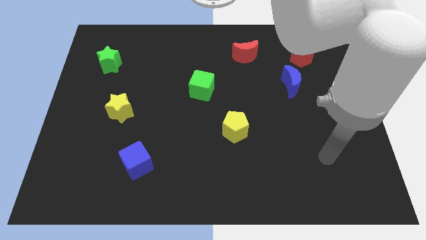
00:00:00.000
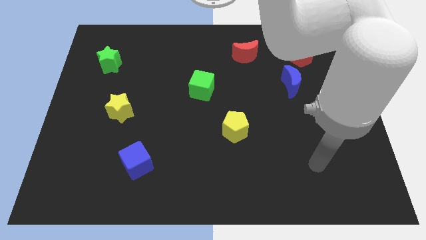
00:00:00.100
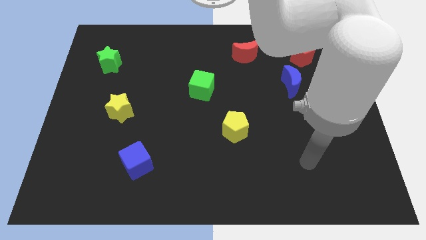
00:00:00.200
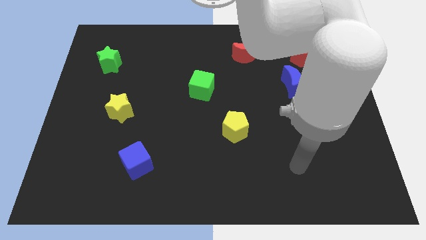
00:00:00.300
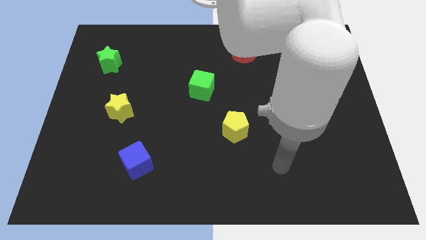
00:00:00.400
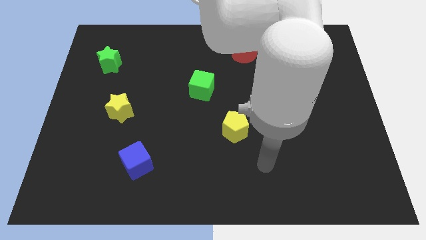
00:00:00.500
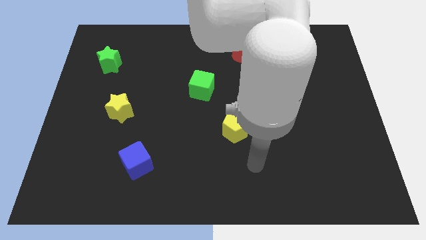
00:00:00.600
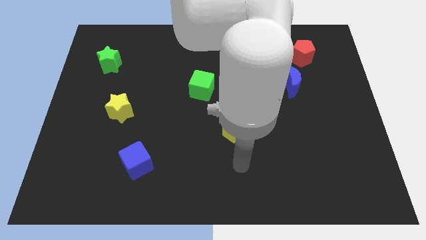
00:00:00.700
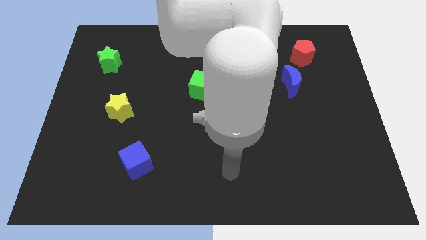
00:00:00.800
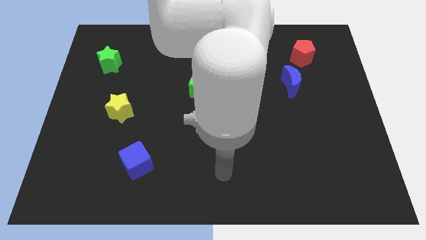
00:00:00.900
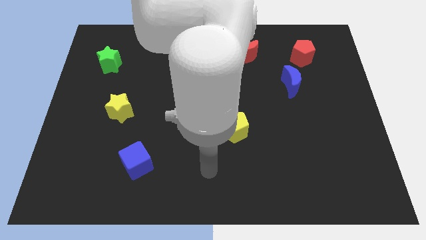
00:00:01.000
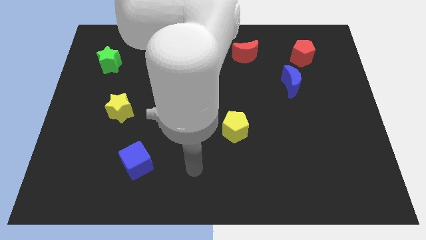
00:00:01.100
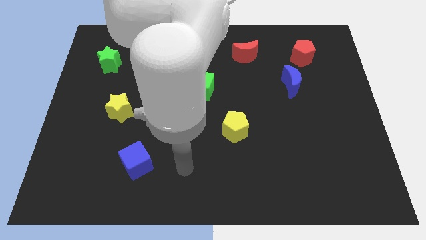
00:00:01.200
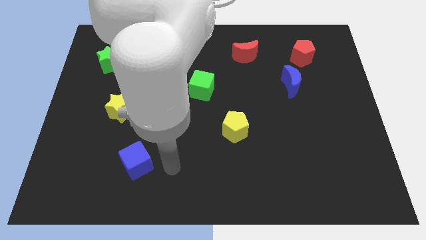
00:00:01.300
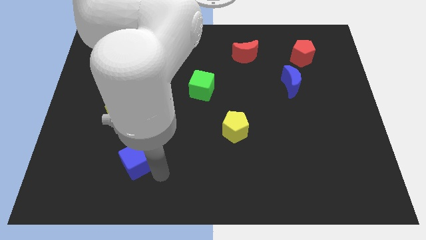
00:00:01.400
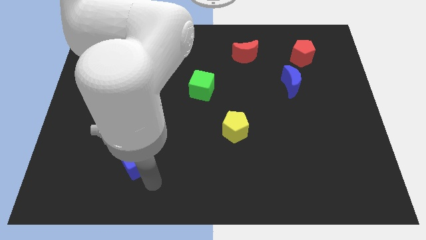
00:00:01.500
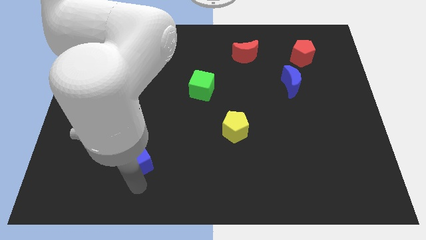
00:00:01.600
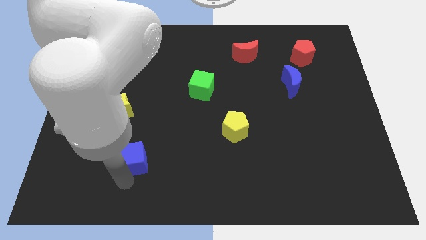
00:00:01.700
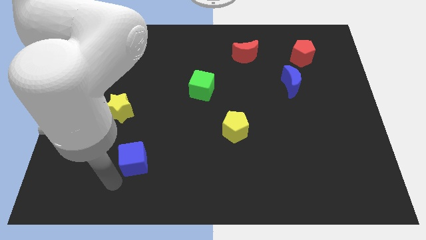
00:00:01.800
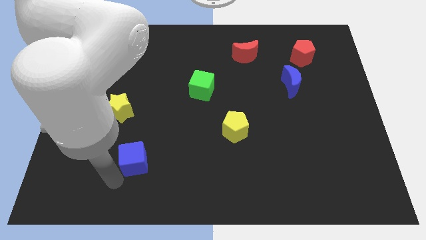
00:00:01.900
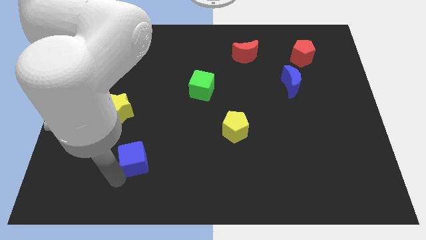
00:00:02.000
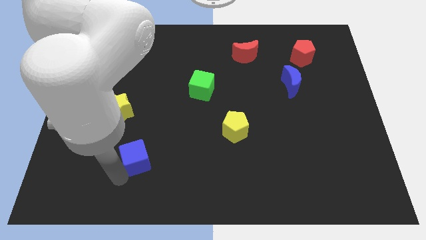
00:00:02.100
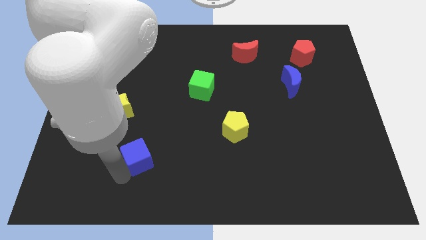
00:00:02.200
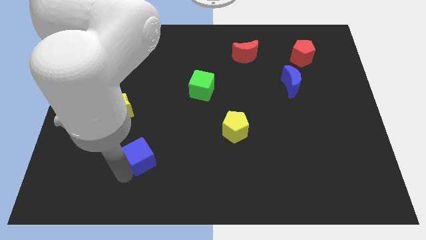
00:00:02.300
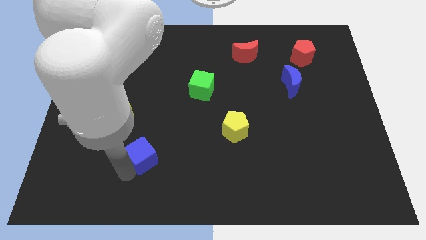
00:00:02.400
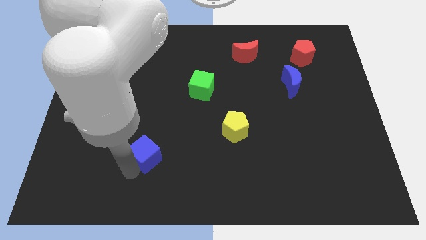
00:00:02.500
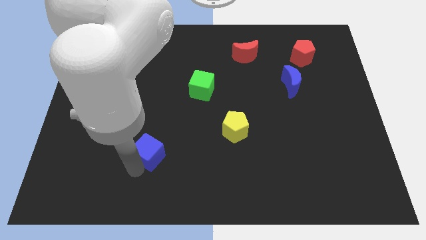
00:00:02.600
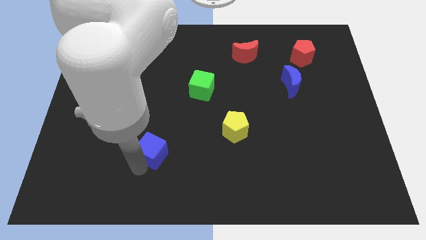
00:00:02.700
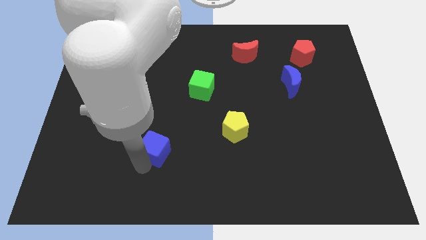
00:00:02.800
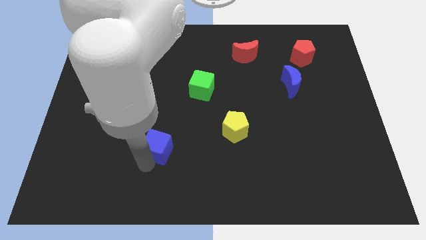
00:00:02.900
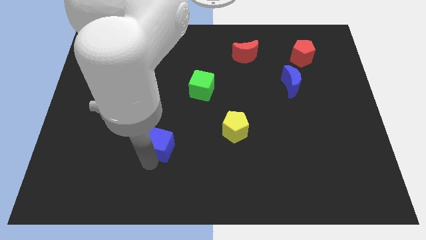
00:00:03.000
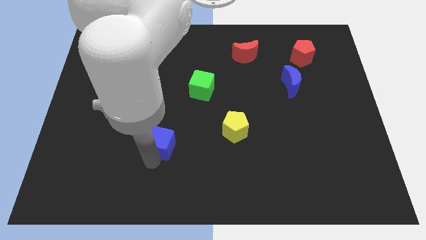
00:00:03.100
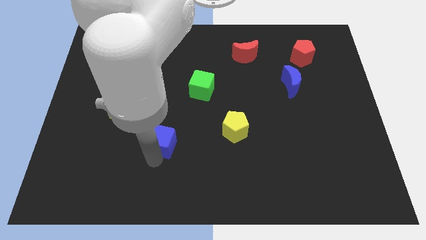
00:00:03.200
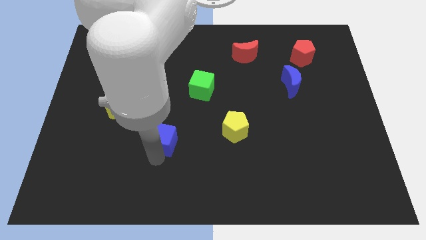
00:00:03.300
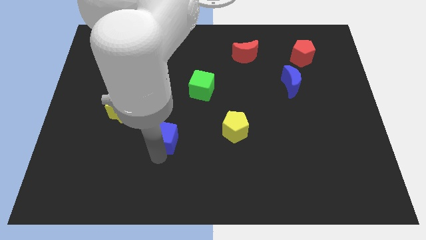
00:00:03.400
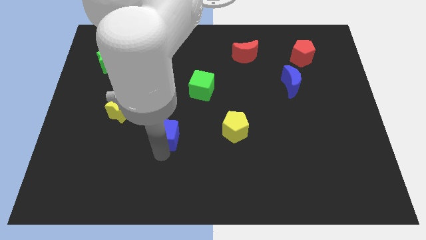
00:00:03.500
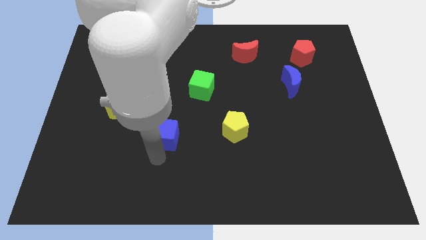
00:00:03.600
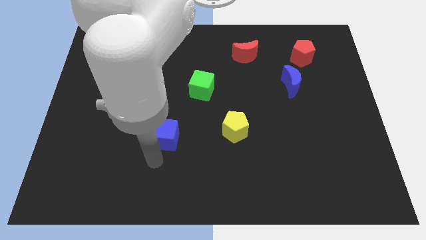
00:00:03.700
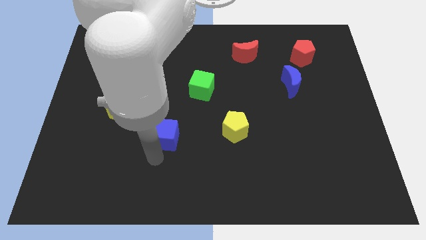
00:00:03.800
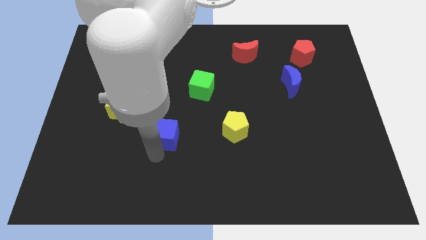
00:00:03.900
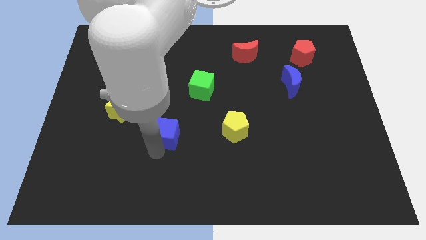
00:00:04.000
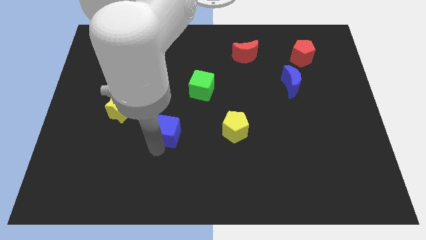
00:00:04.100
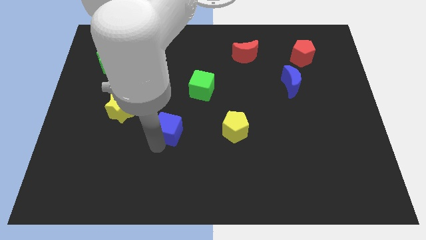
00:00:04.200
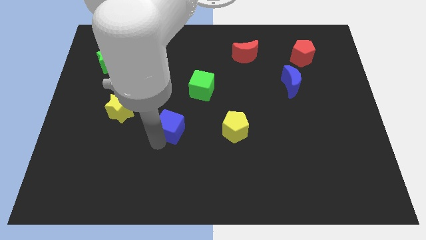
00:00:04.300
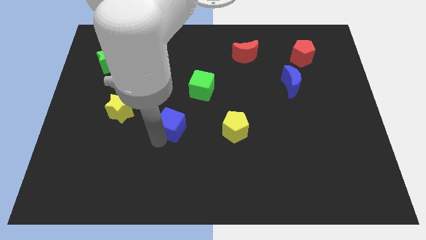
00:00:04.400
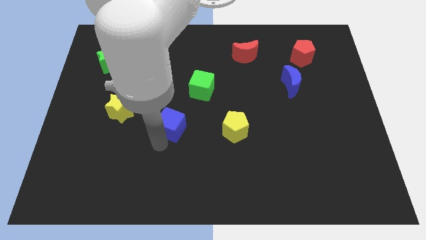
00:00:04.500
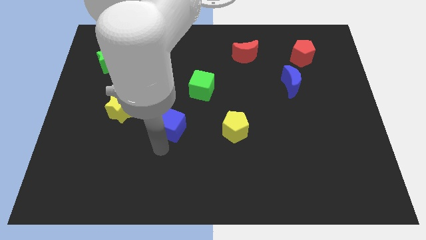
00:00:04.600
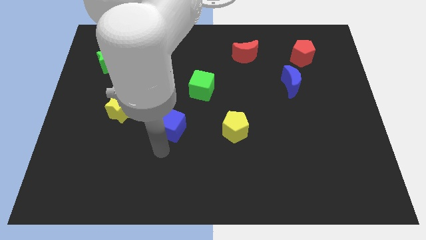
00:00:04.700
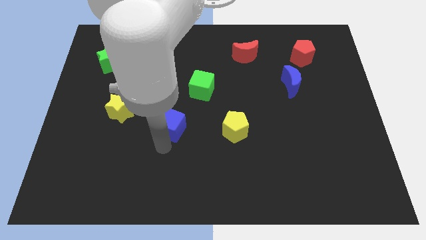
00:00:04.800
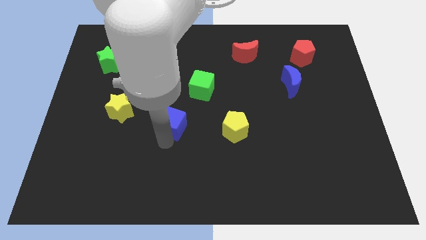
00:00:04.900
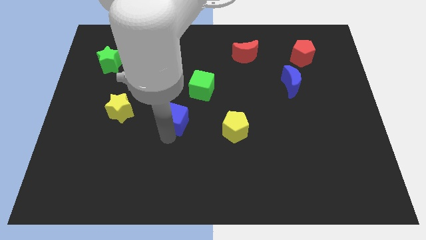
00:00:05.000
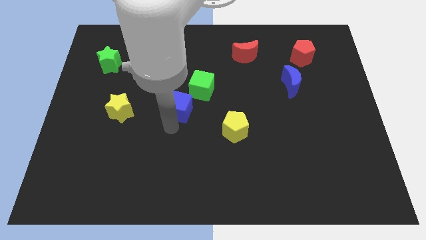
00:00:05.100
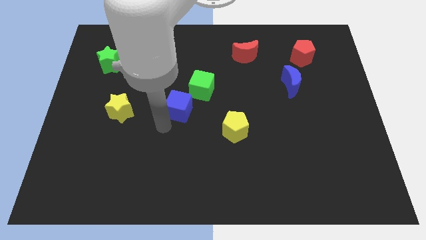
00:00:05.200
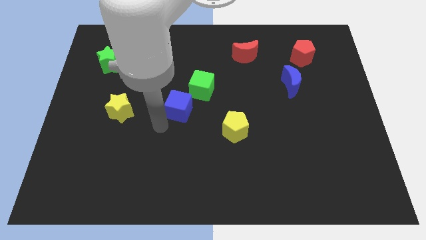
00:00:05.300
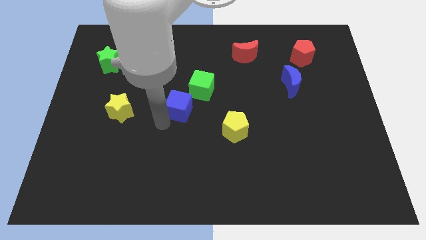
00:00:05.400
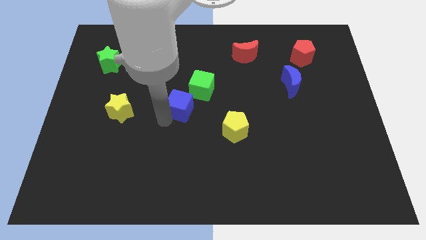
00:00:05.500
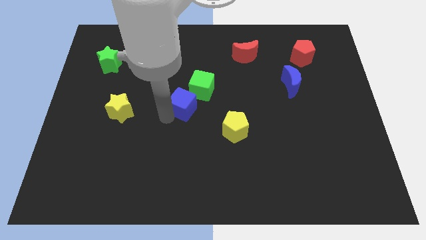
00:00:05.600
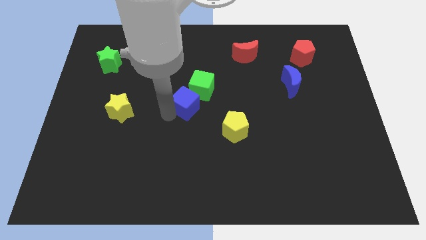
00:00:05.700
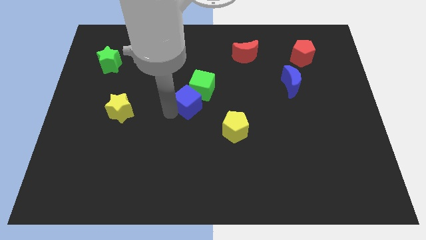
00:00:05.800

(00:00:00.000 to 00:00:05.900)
move the blue cube next to the green cube

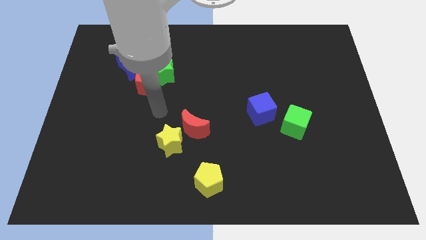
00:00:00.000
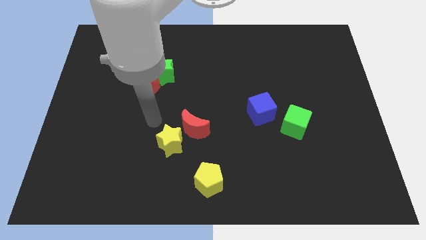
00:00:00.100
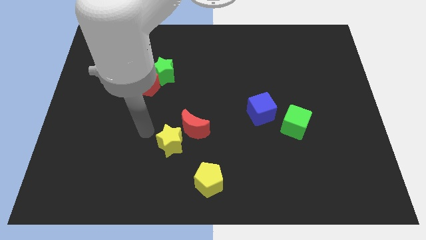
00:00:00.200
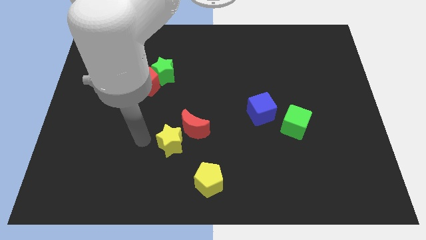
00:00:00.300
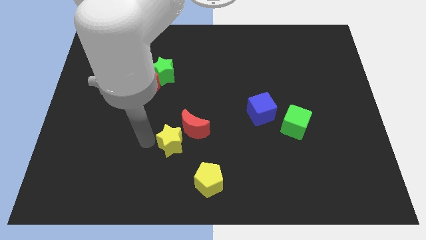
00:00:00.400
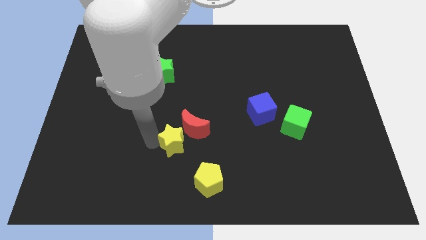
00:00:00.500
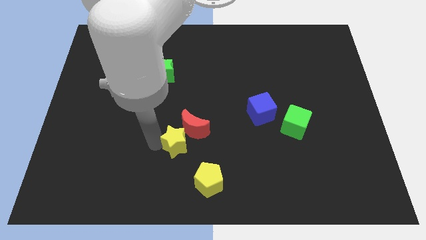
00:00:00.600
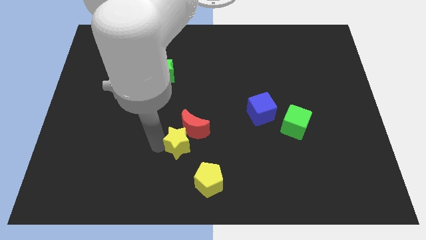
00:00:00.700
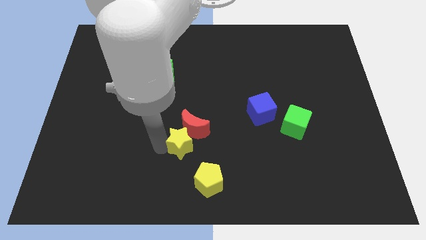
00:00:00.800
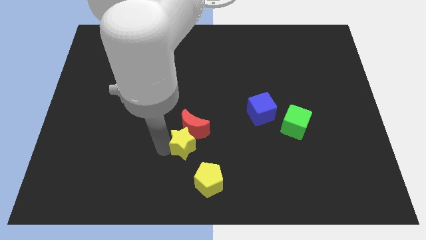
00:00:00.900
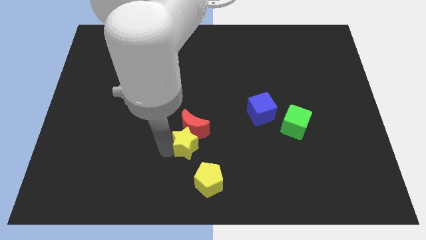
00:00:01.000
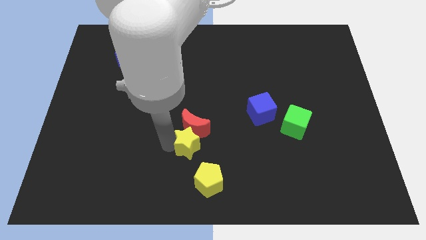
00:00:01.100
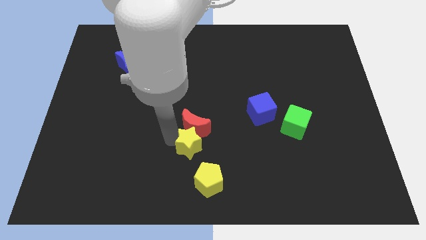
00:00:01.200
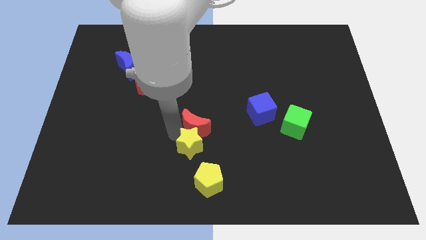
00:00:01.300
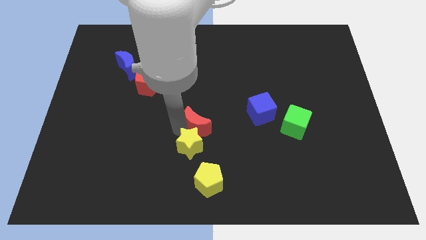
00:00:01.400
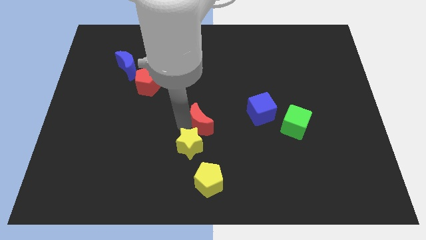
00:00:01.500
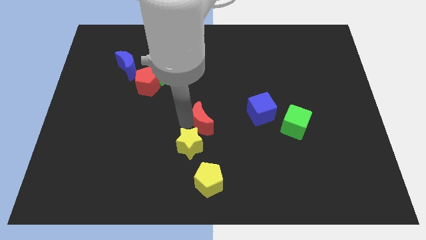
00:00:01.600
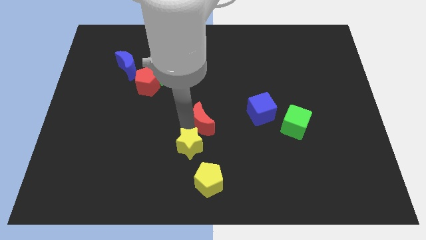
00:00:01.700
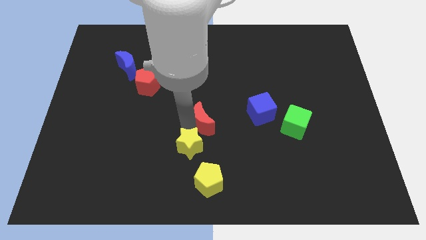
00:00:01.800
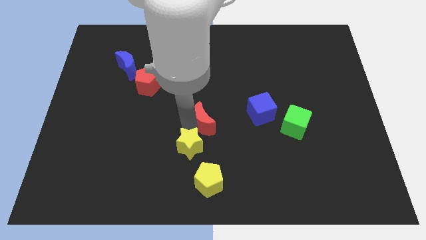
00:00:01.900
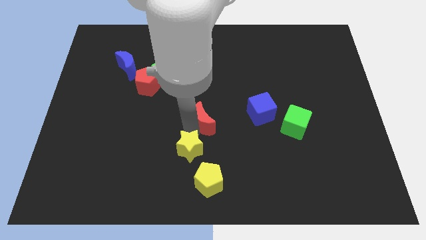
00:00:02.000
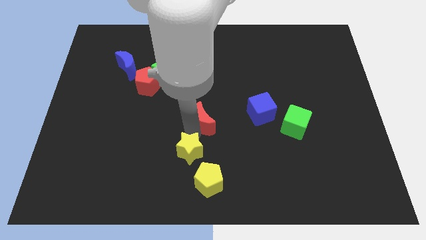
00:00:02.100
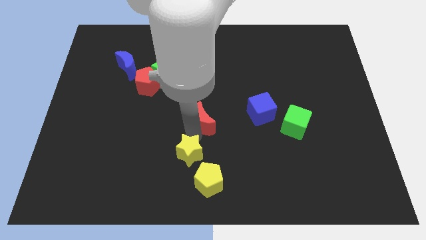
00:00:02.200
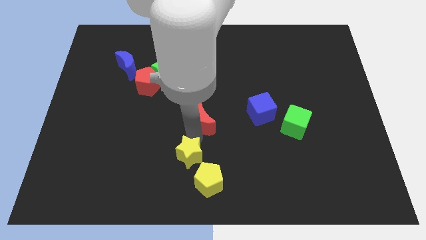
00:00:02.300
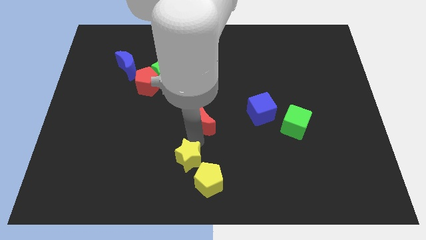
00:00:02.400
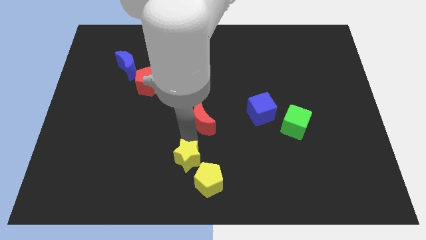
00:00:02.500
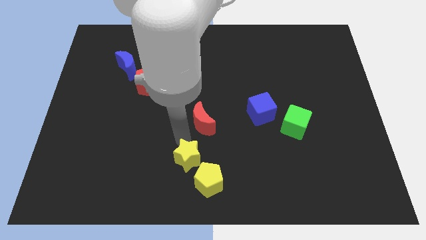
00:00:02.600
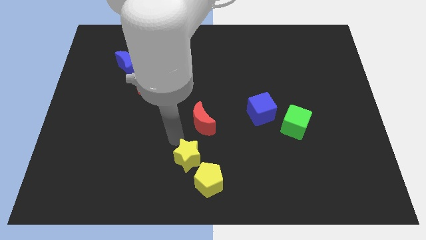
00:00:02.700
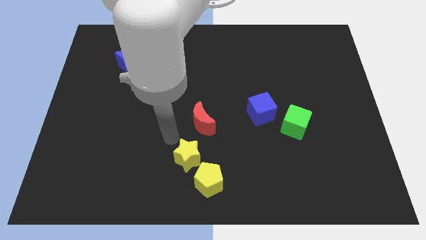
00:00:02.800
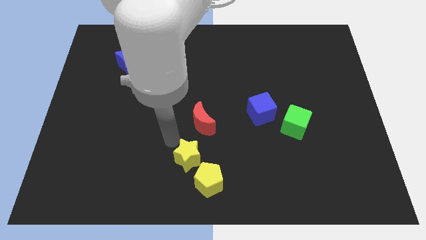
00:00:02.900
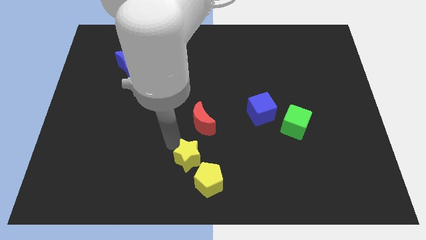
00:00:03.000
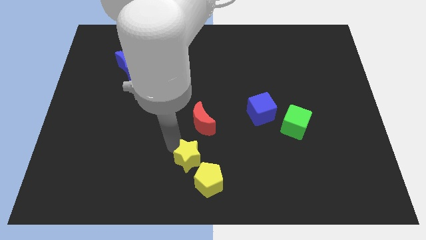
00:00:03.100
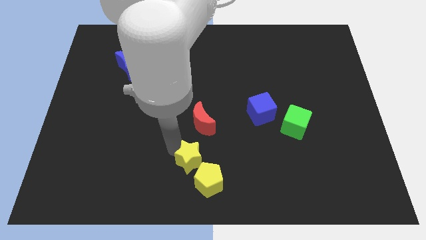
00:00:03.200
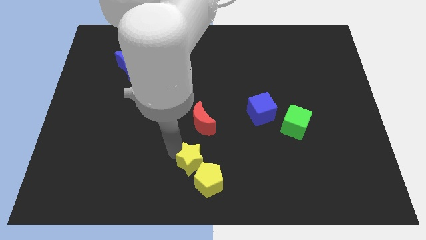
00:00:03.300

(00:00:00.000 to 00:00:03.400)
slide the yellow star to the yellow pentagon
